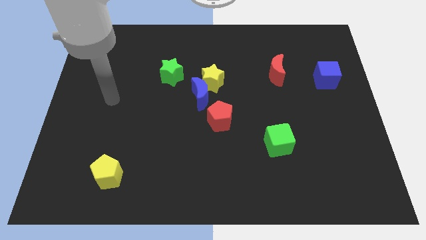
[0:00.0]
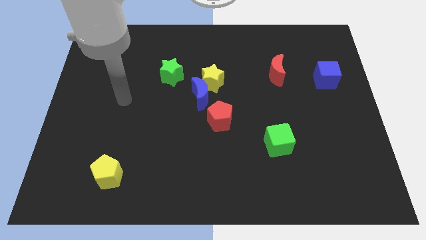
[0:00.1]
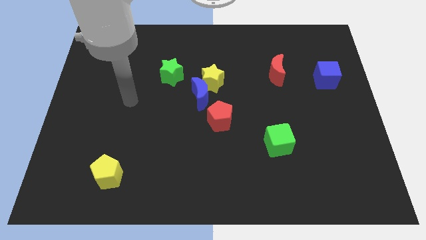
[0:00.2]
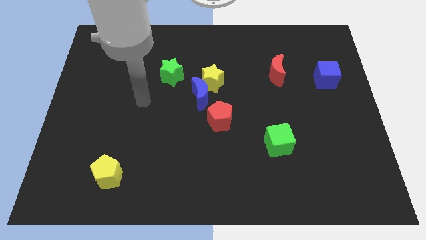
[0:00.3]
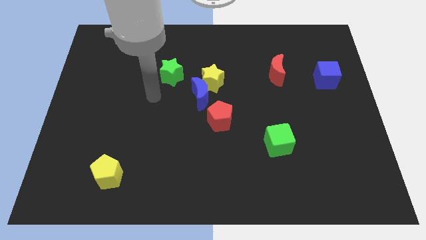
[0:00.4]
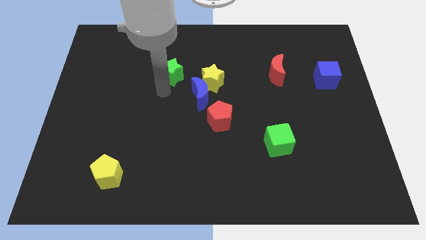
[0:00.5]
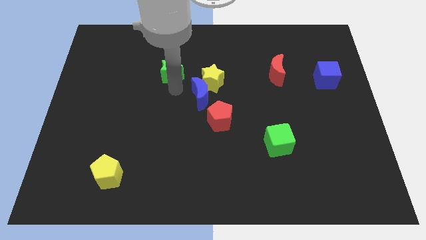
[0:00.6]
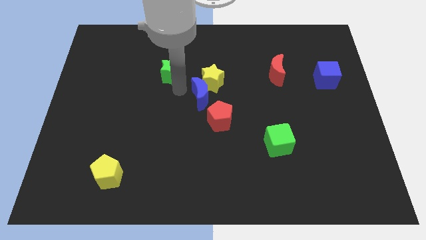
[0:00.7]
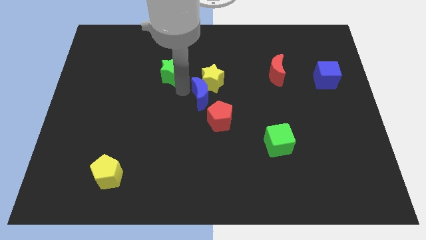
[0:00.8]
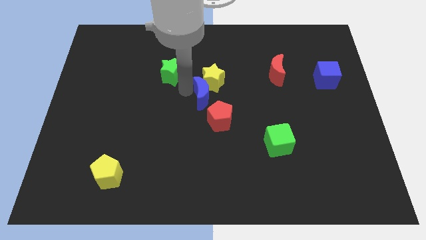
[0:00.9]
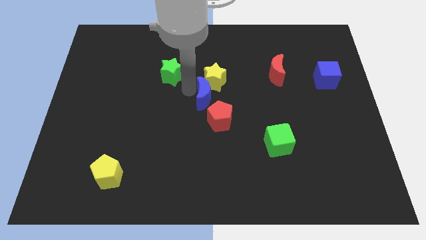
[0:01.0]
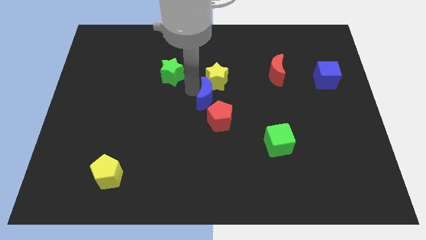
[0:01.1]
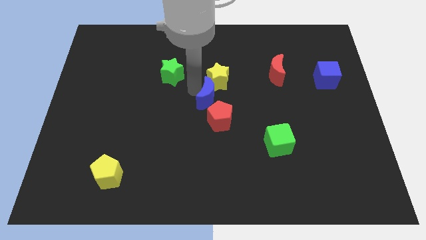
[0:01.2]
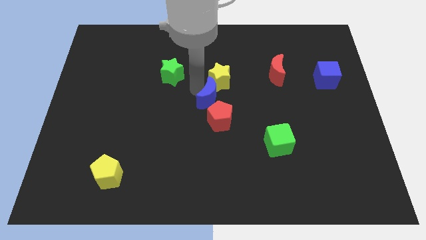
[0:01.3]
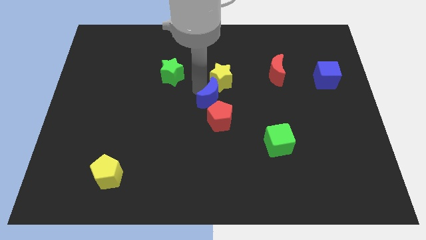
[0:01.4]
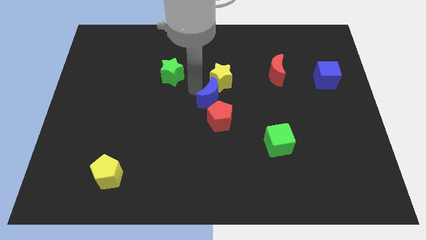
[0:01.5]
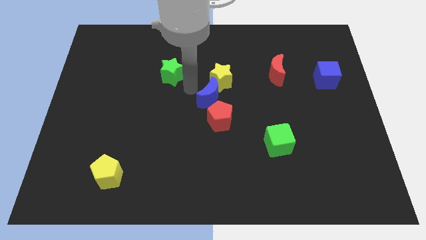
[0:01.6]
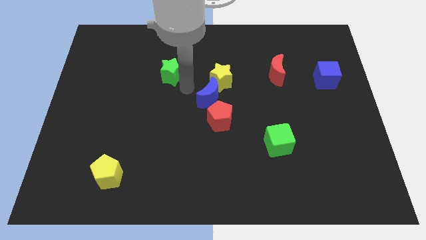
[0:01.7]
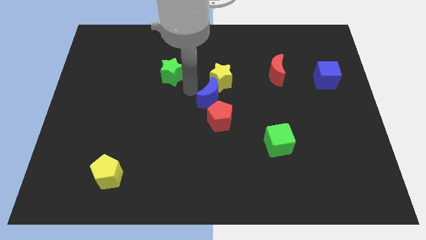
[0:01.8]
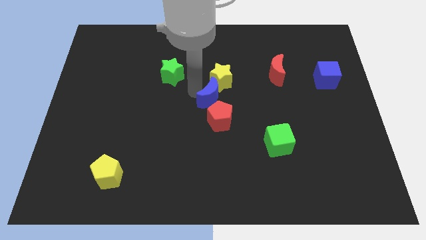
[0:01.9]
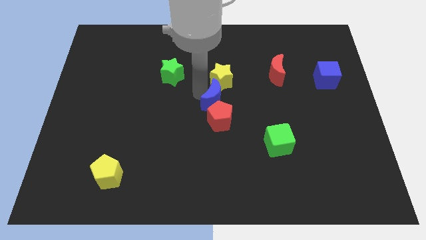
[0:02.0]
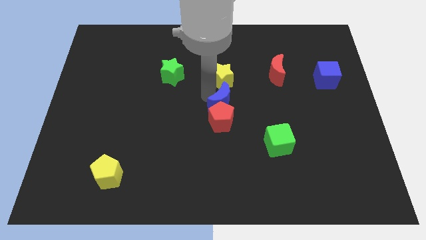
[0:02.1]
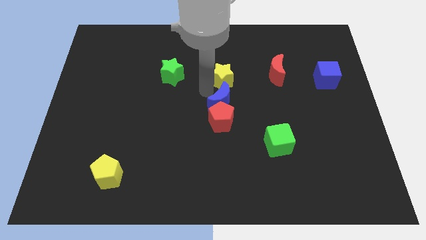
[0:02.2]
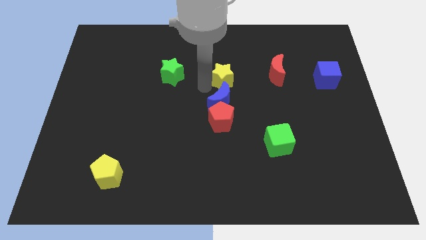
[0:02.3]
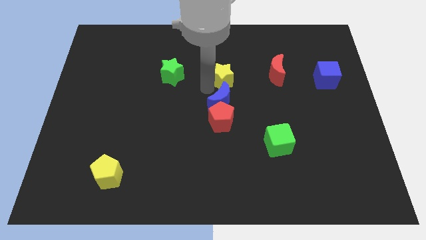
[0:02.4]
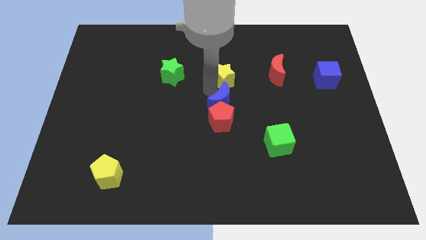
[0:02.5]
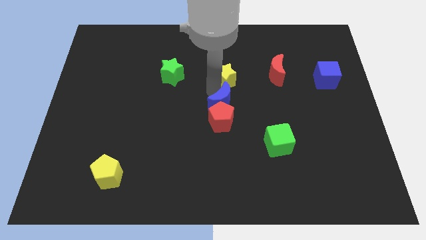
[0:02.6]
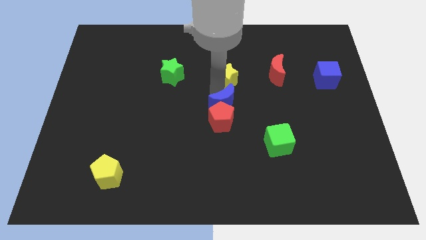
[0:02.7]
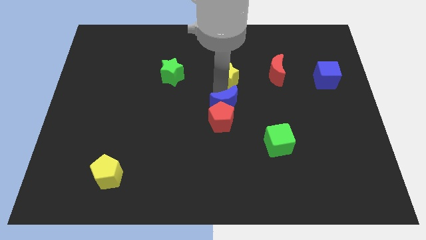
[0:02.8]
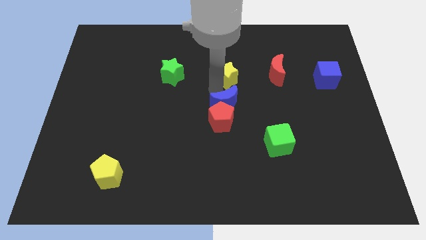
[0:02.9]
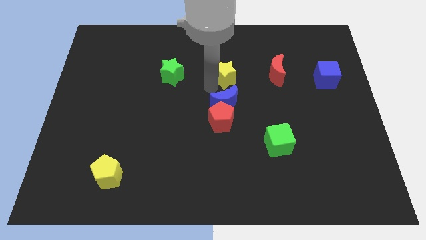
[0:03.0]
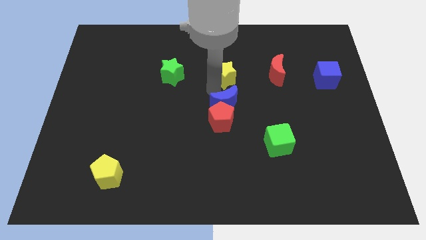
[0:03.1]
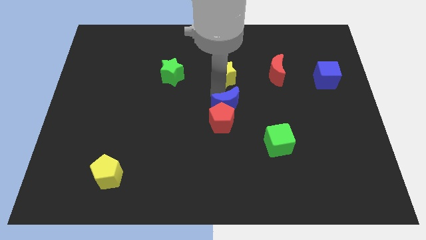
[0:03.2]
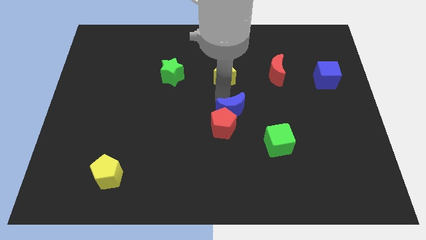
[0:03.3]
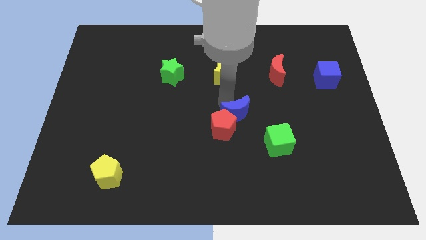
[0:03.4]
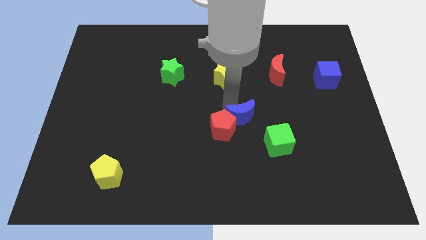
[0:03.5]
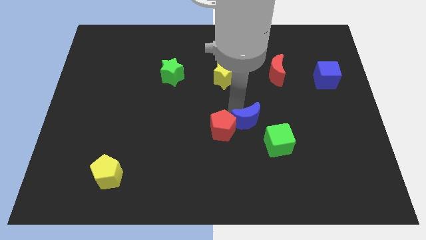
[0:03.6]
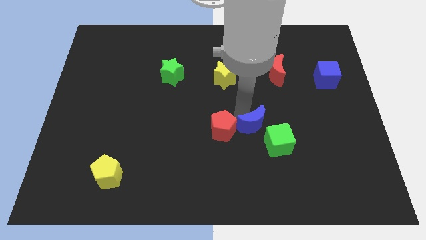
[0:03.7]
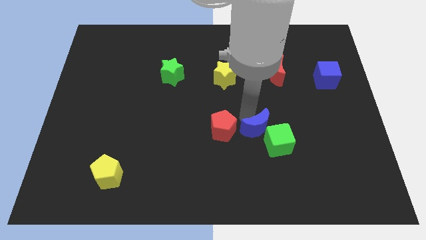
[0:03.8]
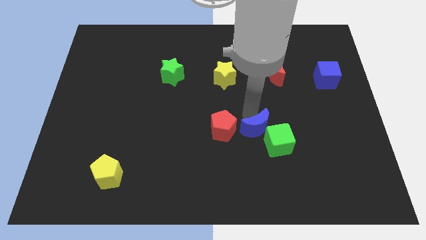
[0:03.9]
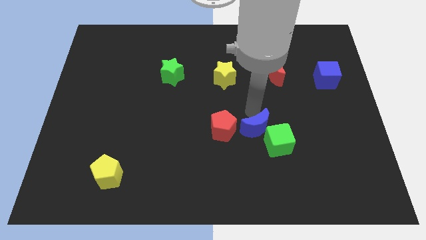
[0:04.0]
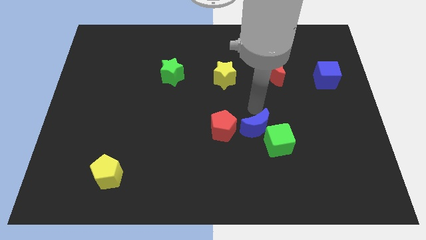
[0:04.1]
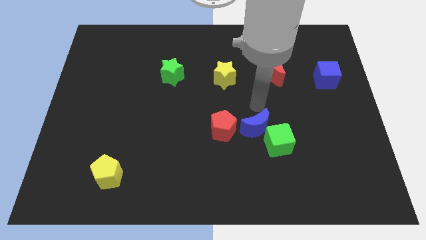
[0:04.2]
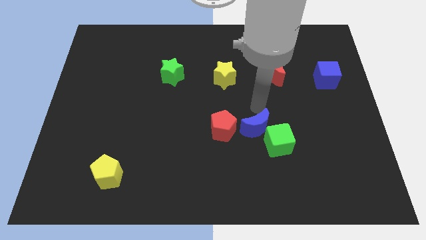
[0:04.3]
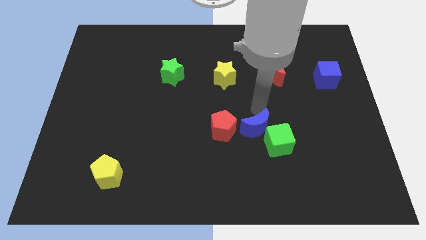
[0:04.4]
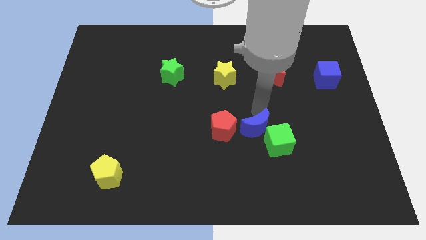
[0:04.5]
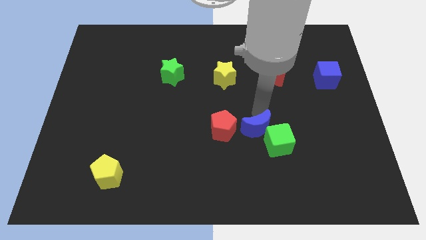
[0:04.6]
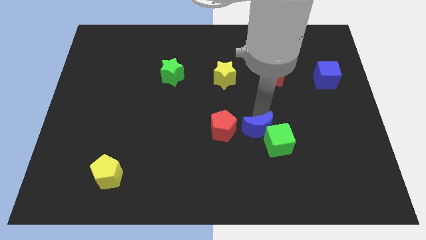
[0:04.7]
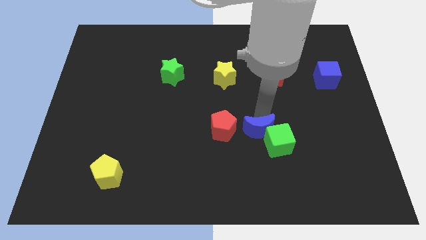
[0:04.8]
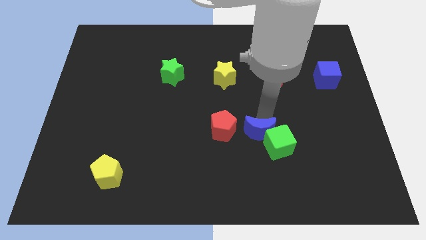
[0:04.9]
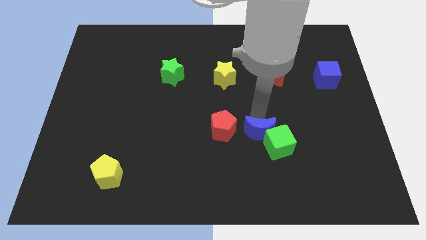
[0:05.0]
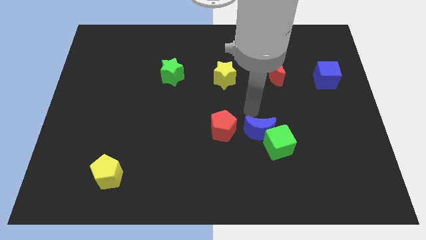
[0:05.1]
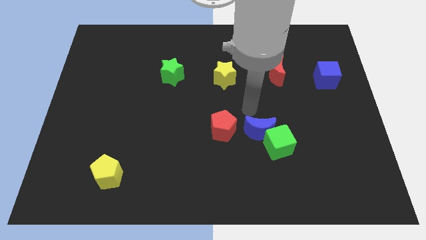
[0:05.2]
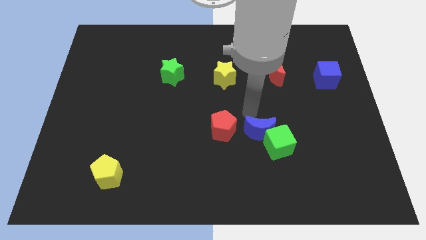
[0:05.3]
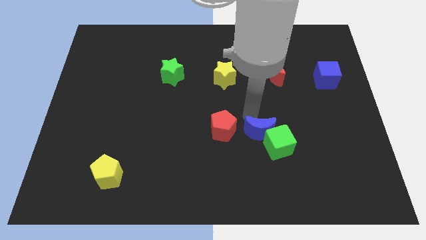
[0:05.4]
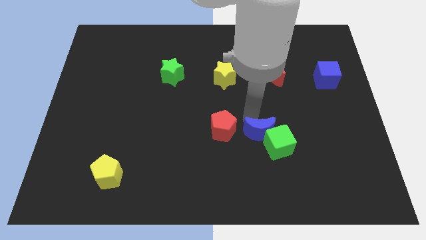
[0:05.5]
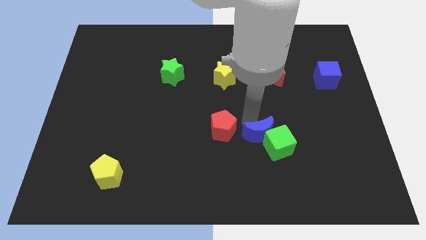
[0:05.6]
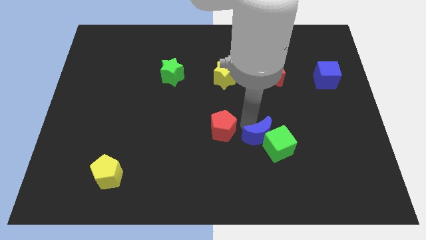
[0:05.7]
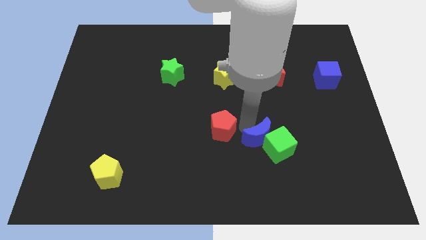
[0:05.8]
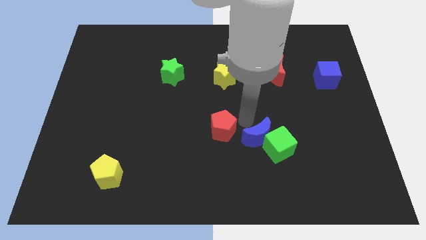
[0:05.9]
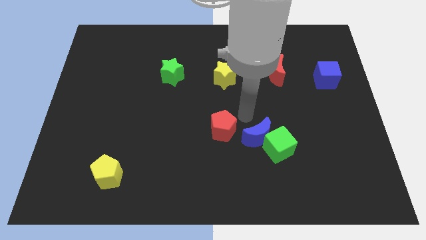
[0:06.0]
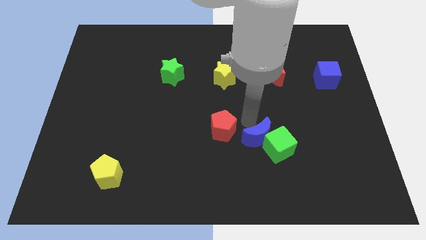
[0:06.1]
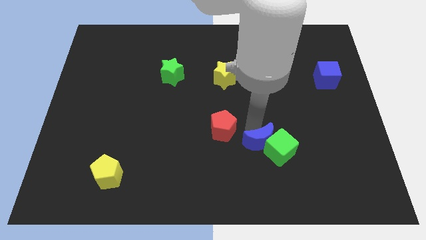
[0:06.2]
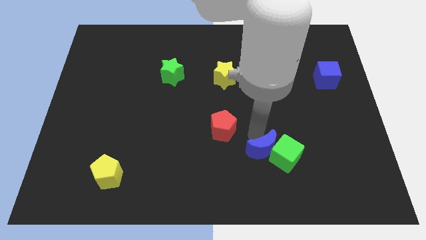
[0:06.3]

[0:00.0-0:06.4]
move the blue moon down and to the right diagonally

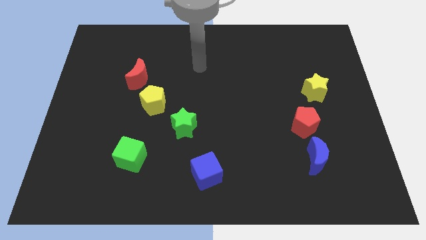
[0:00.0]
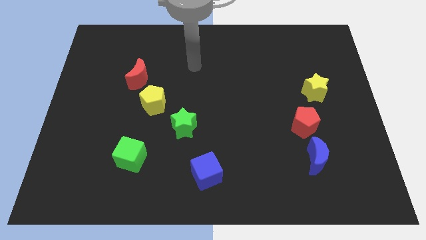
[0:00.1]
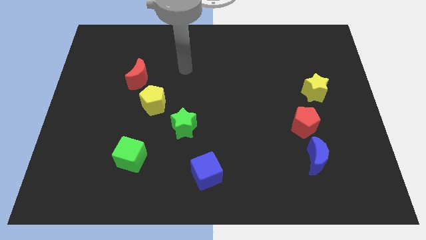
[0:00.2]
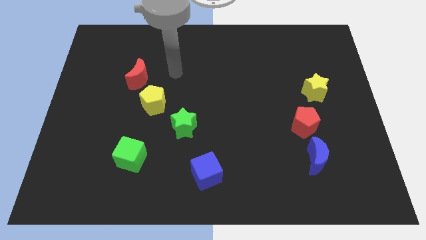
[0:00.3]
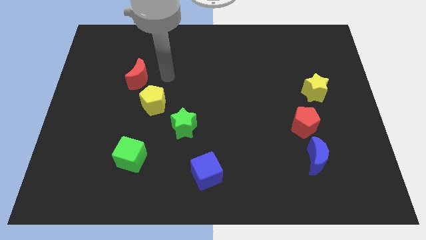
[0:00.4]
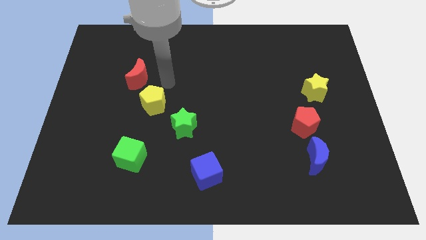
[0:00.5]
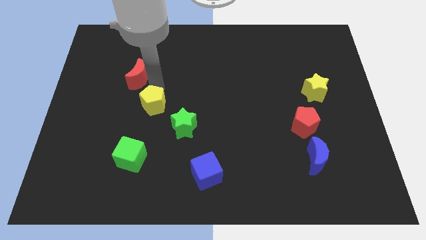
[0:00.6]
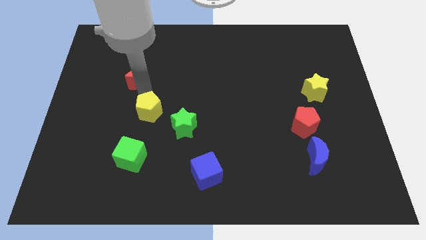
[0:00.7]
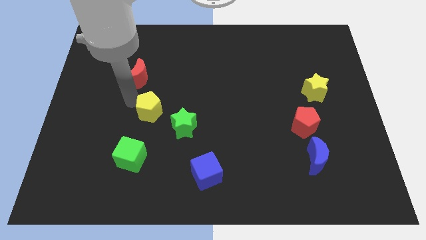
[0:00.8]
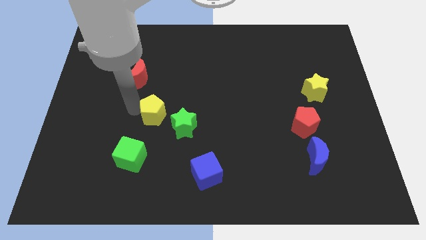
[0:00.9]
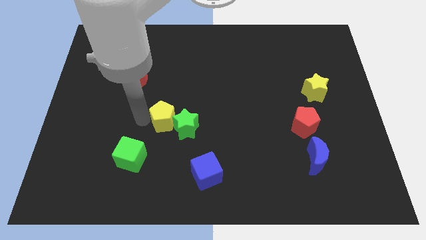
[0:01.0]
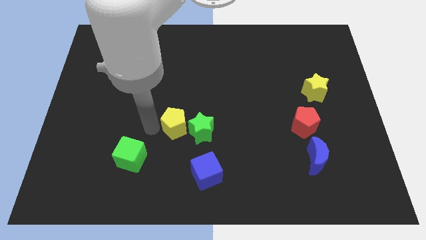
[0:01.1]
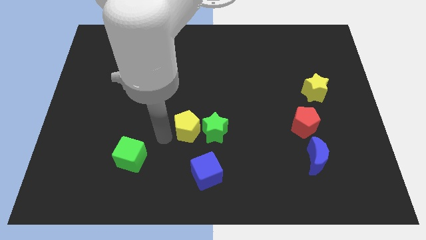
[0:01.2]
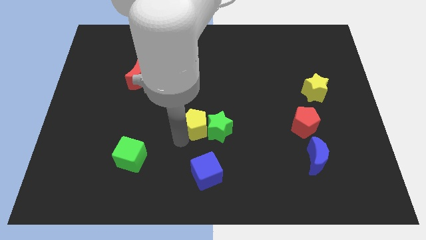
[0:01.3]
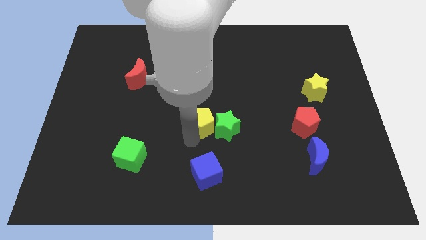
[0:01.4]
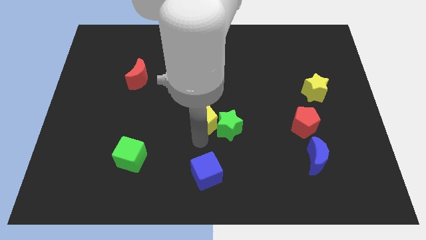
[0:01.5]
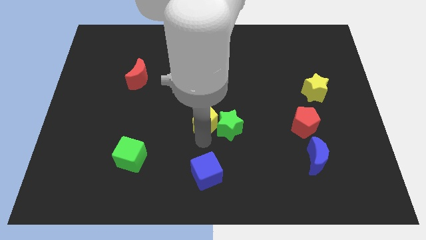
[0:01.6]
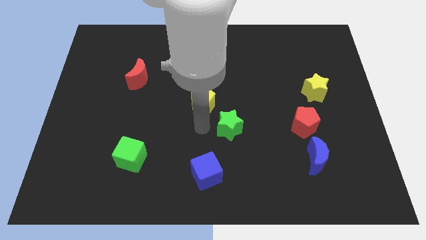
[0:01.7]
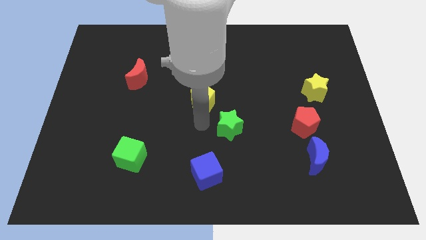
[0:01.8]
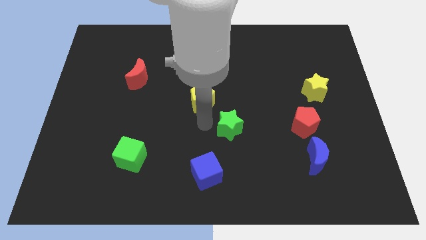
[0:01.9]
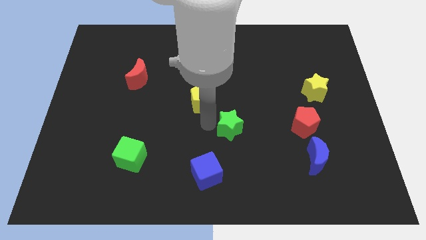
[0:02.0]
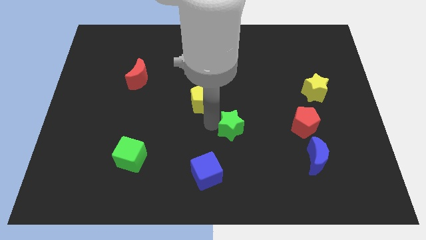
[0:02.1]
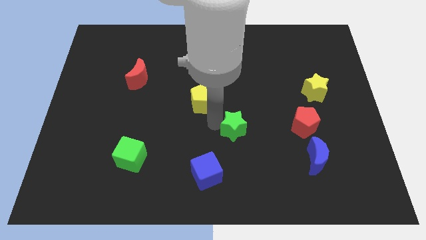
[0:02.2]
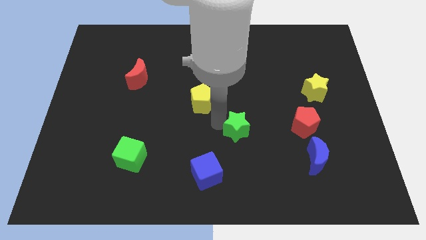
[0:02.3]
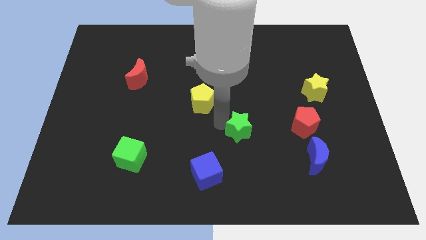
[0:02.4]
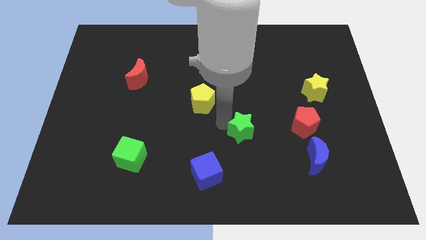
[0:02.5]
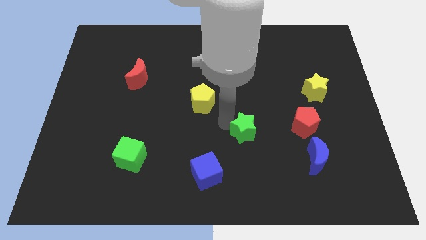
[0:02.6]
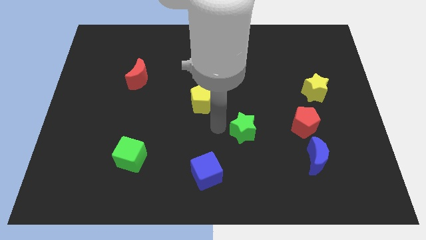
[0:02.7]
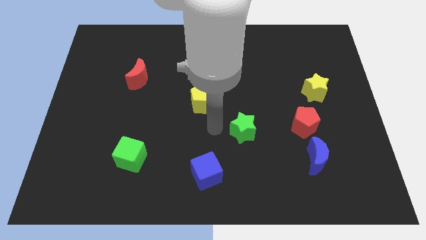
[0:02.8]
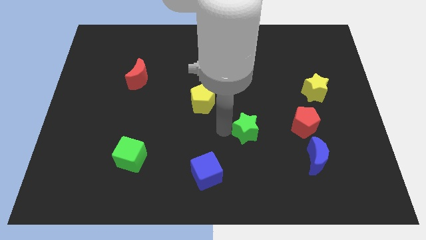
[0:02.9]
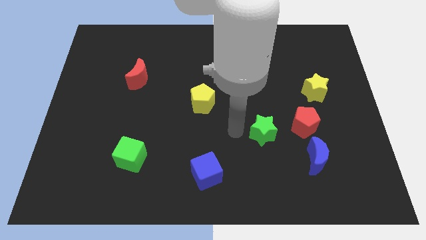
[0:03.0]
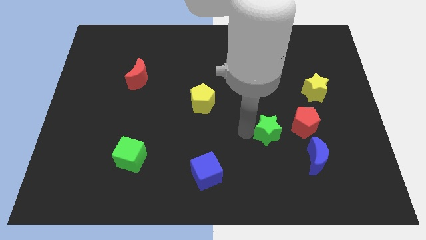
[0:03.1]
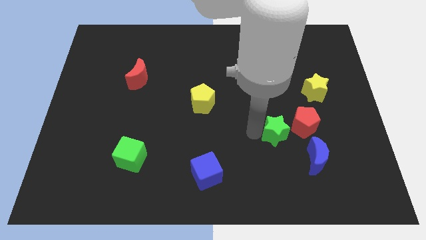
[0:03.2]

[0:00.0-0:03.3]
move the green star right
